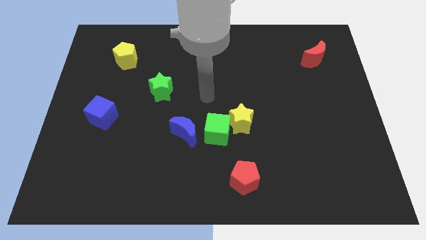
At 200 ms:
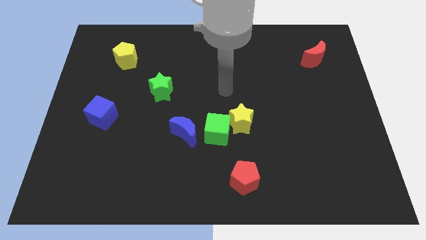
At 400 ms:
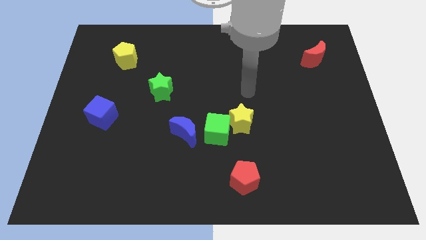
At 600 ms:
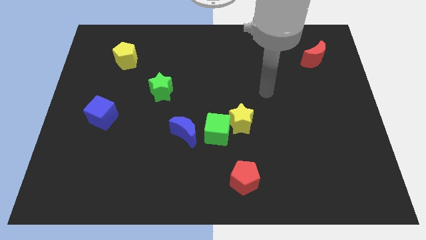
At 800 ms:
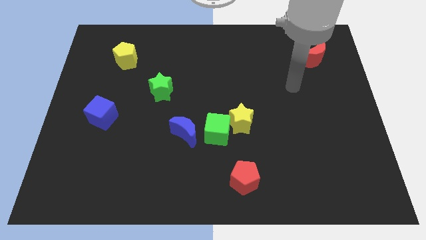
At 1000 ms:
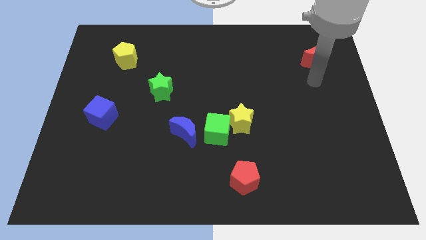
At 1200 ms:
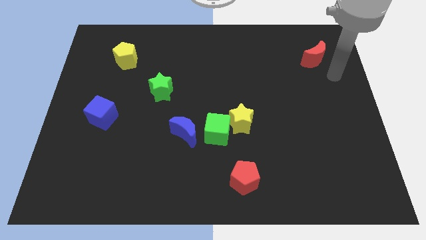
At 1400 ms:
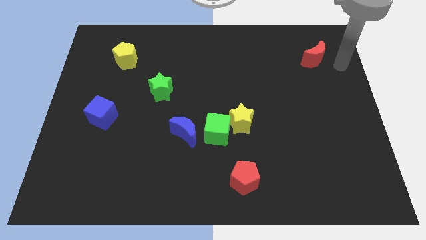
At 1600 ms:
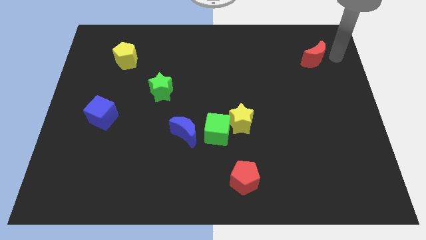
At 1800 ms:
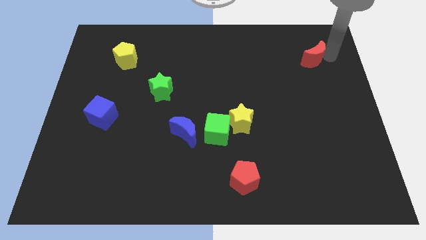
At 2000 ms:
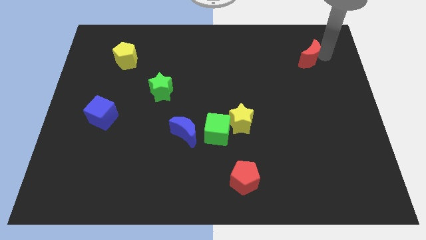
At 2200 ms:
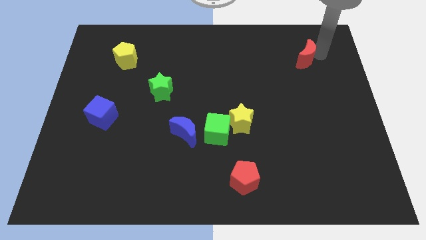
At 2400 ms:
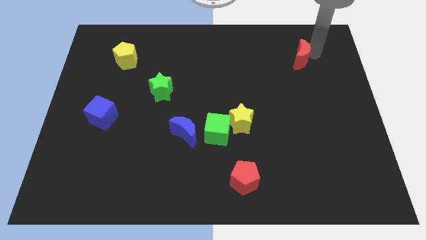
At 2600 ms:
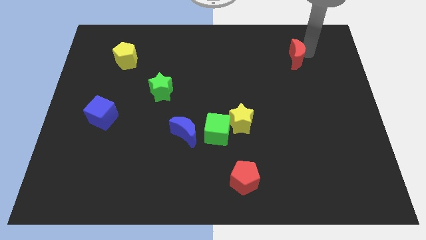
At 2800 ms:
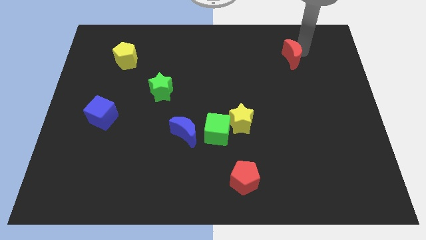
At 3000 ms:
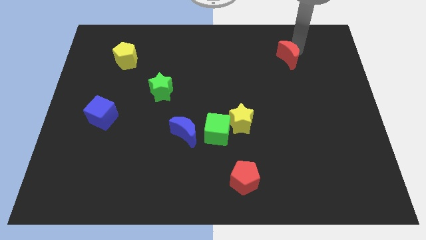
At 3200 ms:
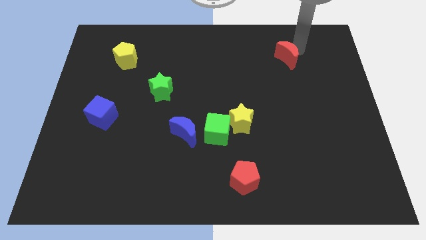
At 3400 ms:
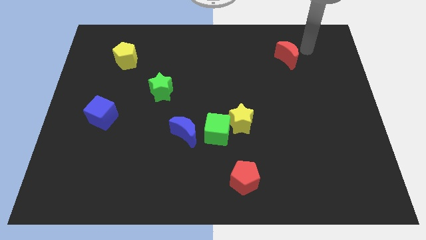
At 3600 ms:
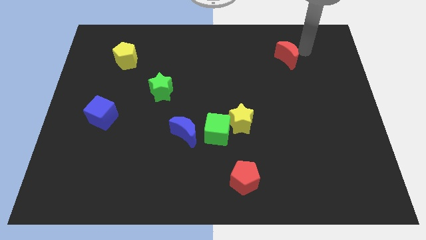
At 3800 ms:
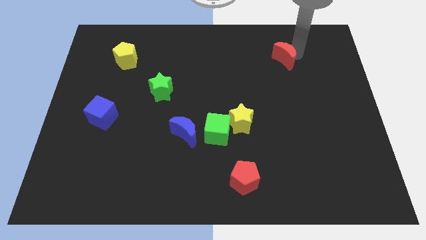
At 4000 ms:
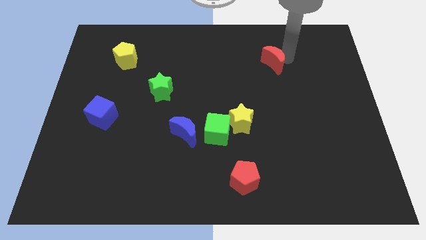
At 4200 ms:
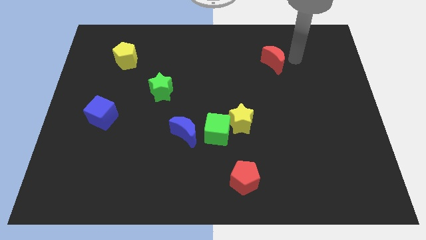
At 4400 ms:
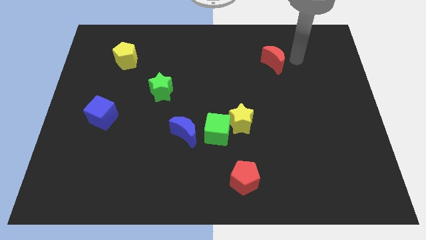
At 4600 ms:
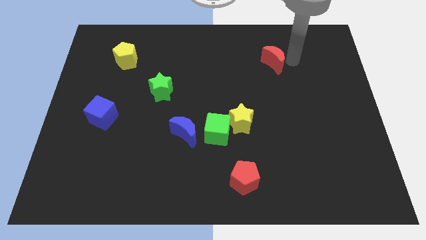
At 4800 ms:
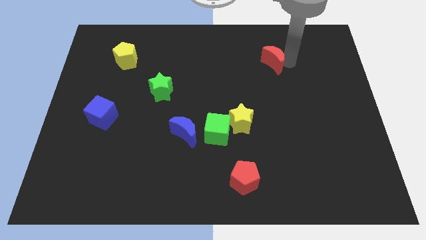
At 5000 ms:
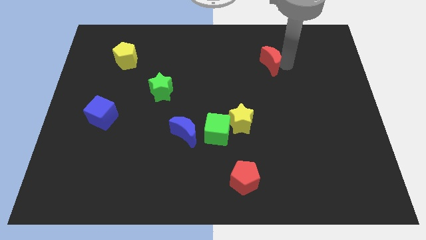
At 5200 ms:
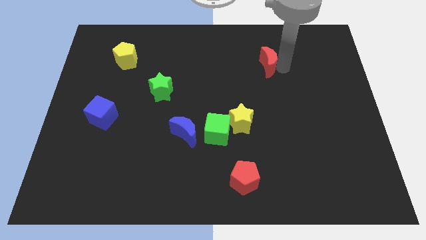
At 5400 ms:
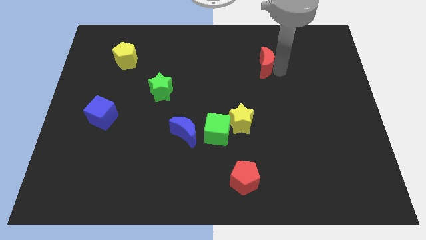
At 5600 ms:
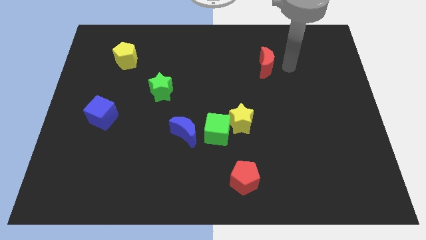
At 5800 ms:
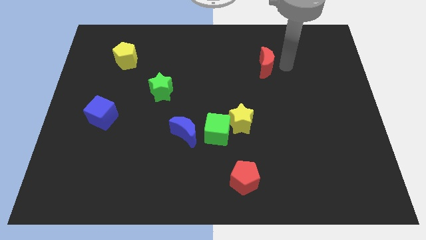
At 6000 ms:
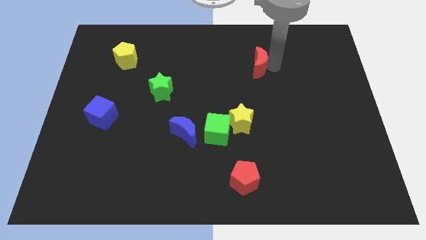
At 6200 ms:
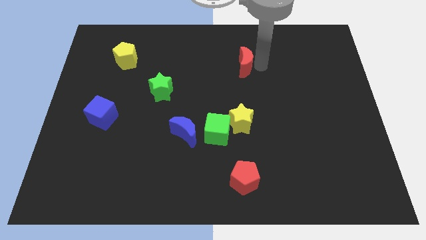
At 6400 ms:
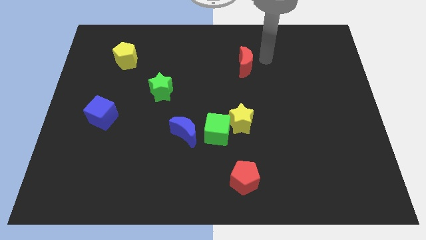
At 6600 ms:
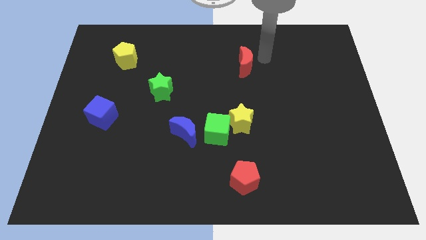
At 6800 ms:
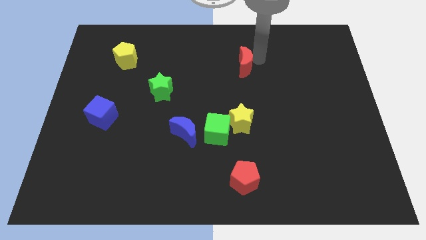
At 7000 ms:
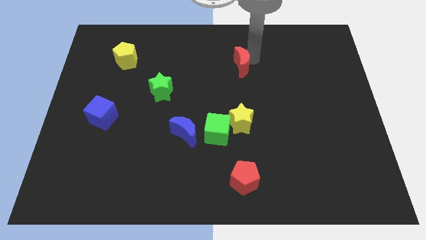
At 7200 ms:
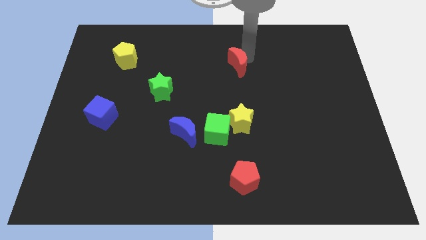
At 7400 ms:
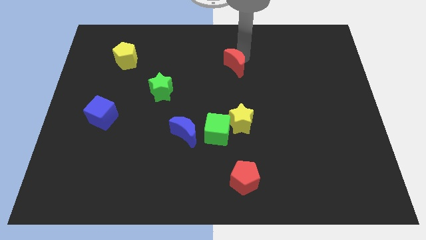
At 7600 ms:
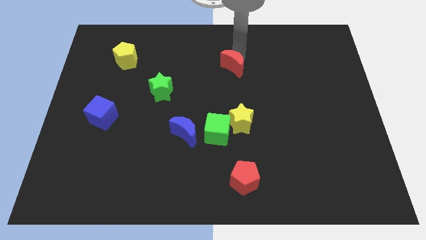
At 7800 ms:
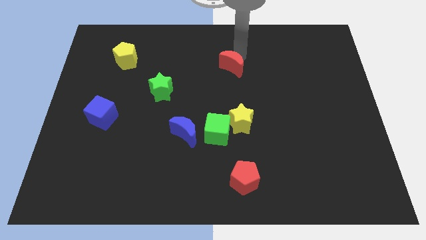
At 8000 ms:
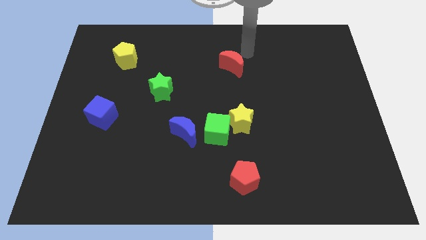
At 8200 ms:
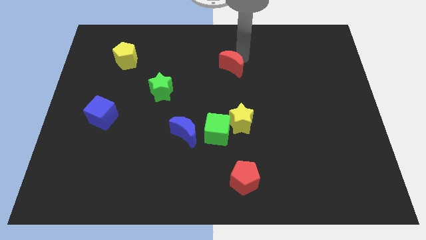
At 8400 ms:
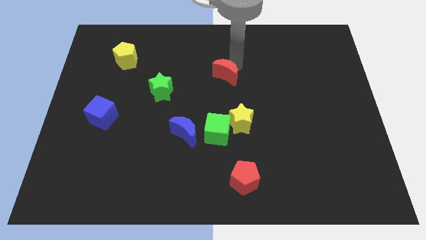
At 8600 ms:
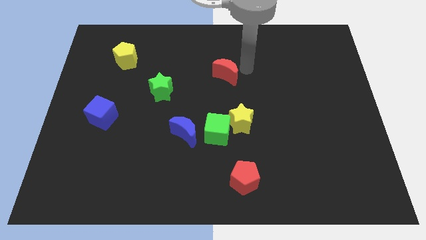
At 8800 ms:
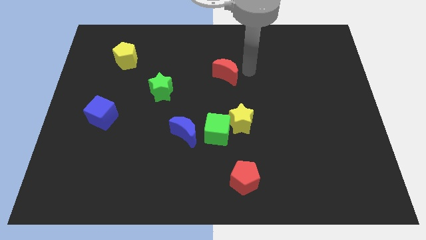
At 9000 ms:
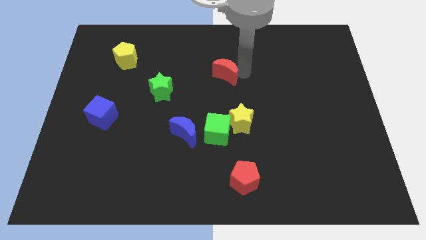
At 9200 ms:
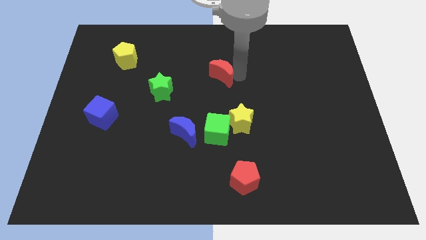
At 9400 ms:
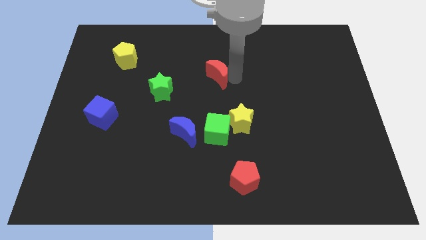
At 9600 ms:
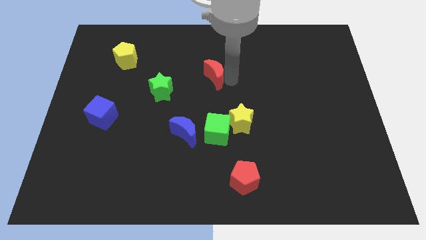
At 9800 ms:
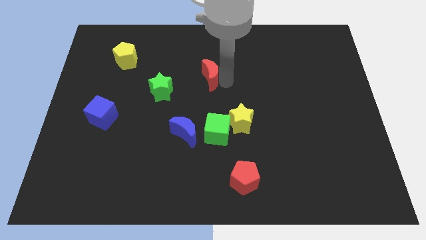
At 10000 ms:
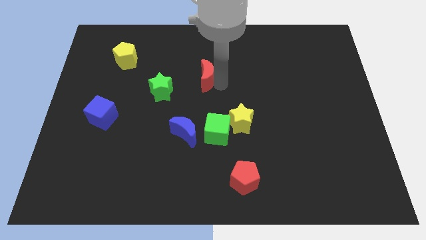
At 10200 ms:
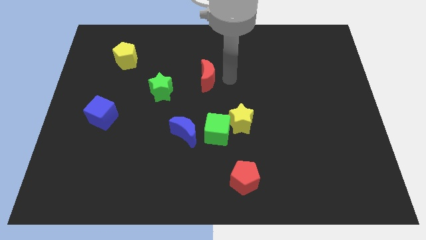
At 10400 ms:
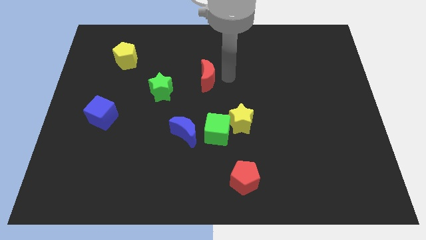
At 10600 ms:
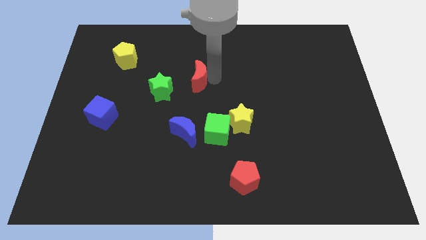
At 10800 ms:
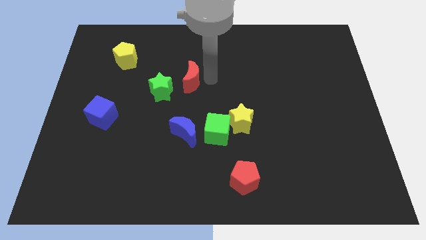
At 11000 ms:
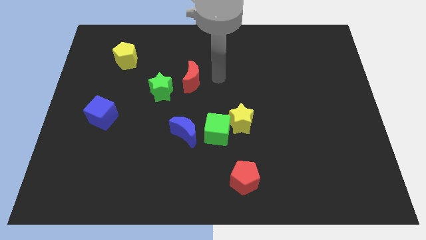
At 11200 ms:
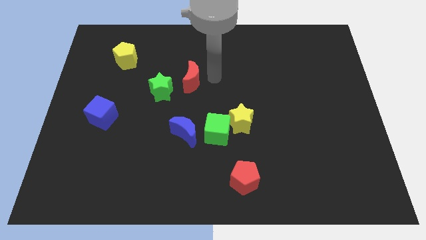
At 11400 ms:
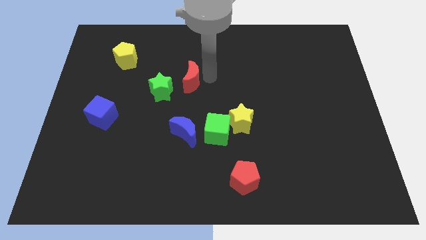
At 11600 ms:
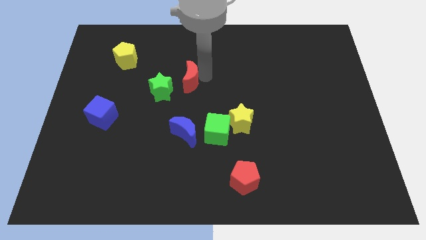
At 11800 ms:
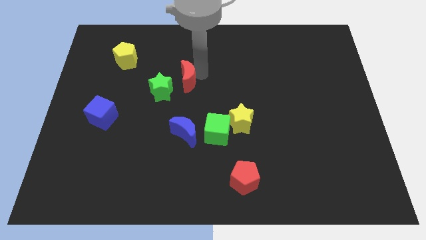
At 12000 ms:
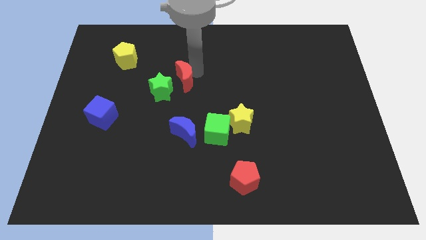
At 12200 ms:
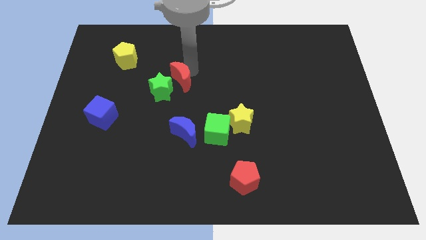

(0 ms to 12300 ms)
move the red moon towards the green star

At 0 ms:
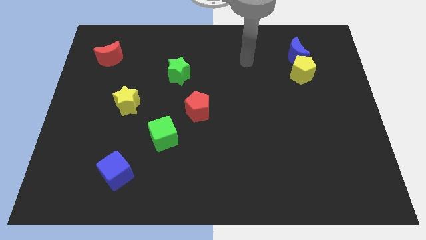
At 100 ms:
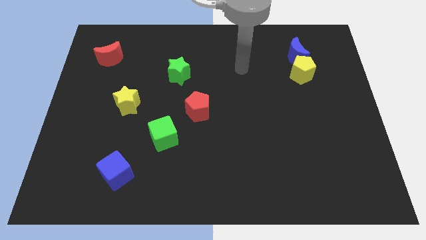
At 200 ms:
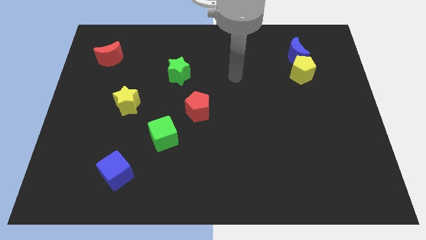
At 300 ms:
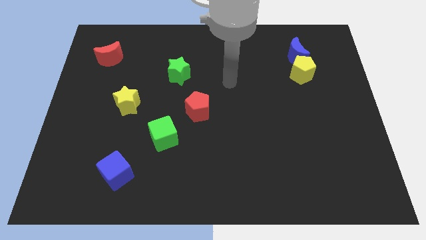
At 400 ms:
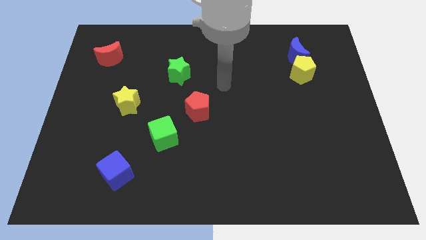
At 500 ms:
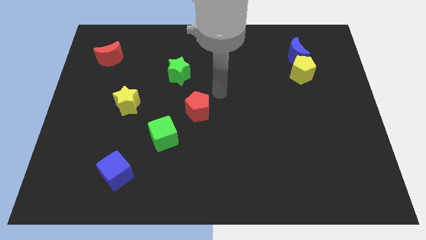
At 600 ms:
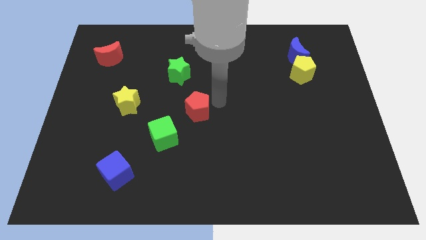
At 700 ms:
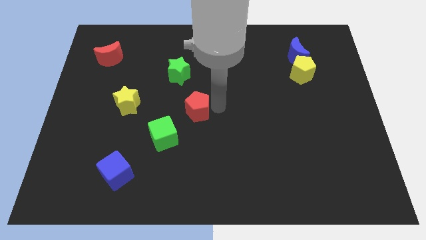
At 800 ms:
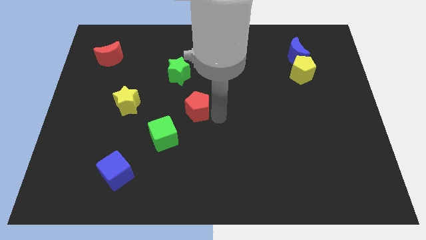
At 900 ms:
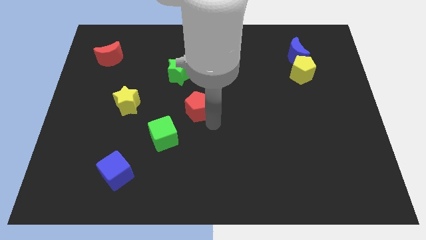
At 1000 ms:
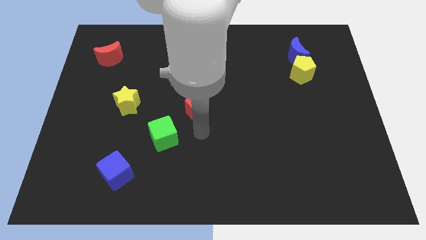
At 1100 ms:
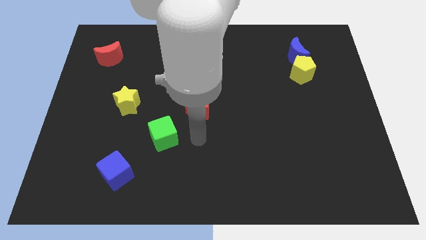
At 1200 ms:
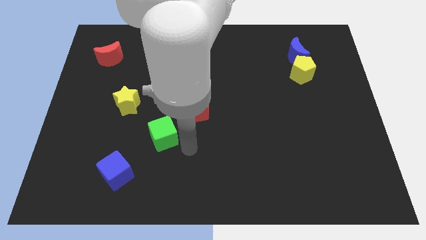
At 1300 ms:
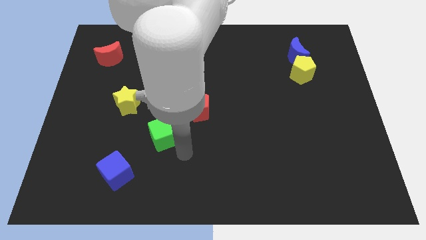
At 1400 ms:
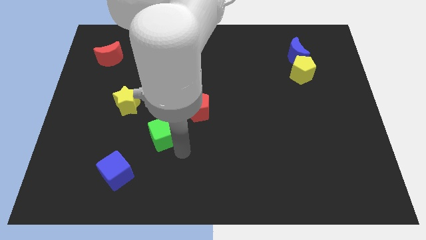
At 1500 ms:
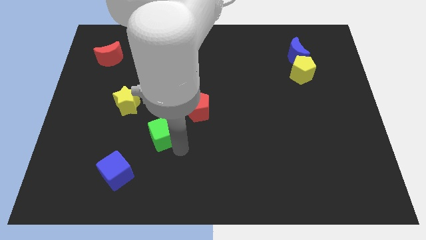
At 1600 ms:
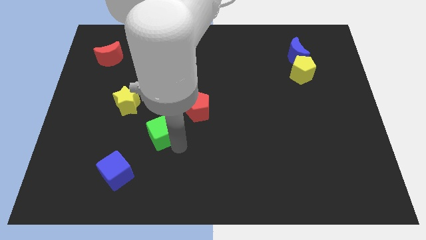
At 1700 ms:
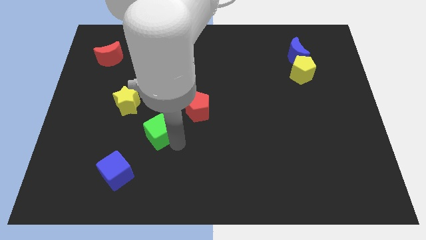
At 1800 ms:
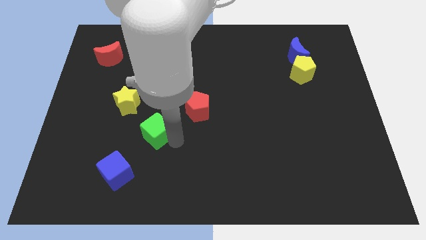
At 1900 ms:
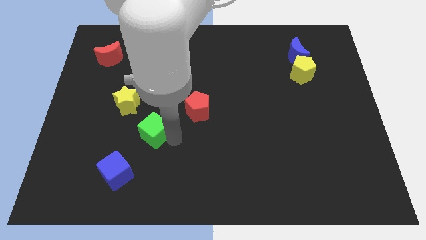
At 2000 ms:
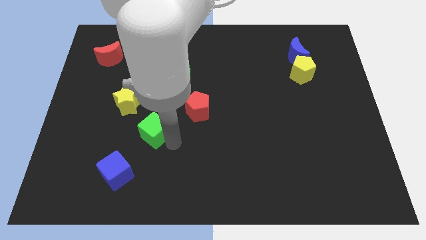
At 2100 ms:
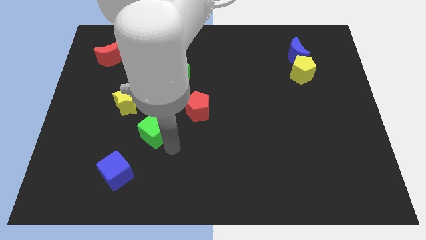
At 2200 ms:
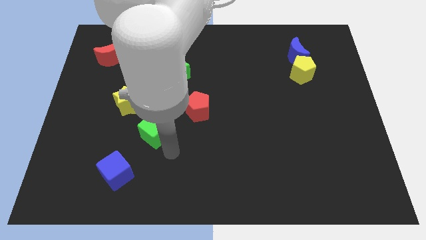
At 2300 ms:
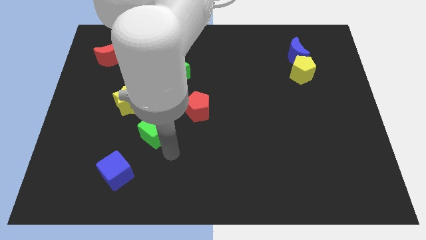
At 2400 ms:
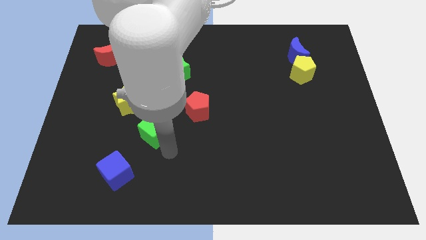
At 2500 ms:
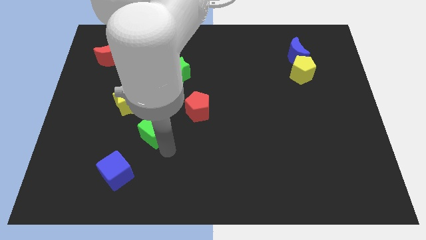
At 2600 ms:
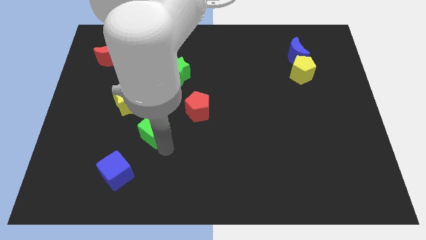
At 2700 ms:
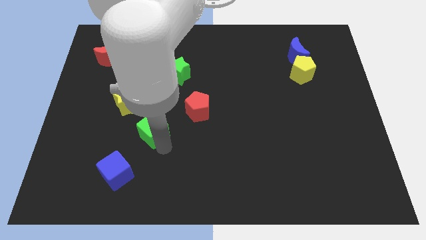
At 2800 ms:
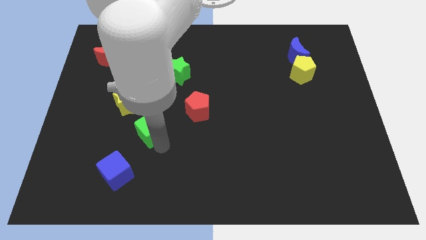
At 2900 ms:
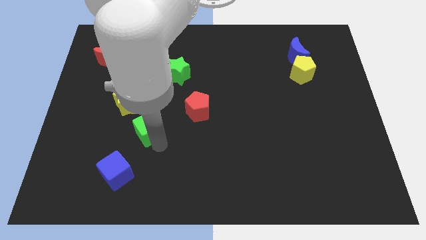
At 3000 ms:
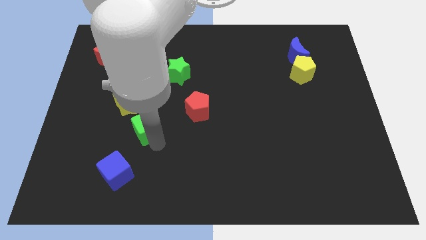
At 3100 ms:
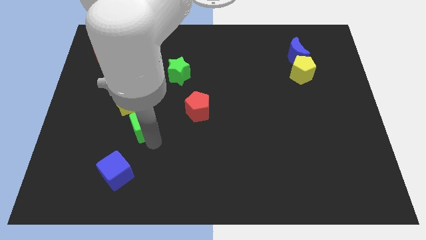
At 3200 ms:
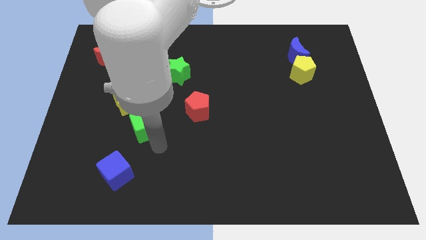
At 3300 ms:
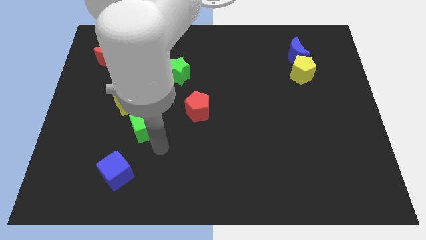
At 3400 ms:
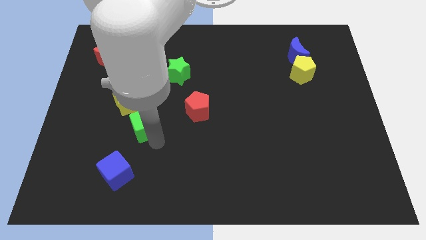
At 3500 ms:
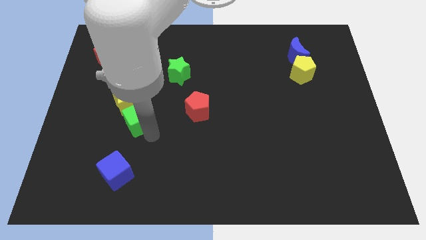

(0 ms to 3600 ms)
put the green cube to the yellow star
